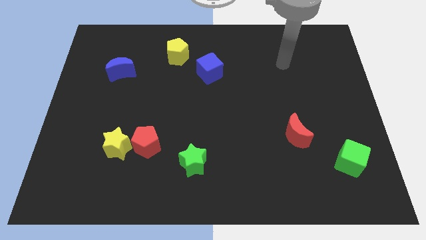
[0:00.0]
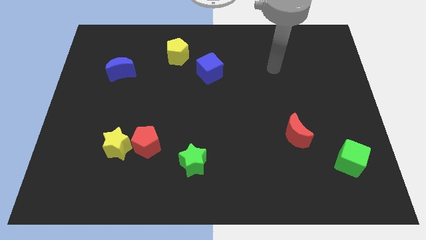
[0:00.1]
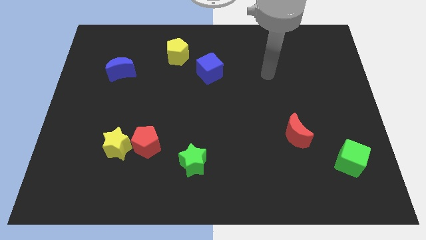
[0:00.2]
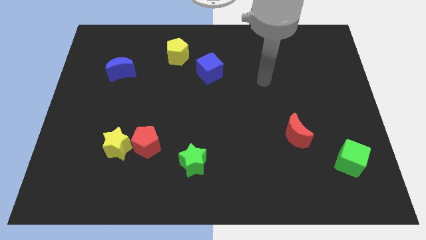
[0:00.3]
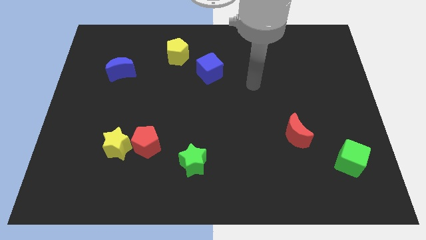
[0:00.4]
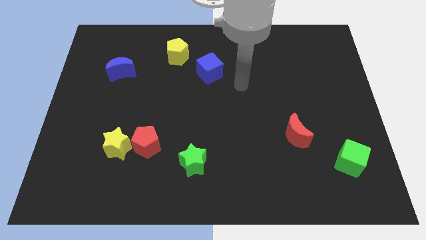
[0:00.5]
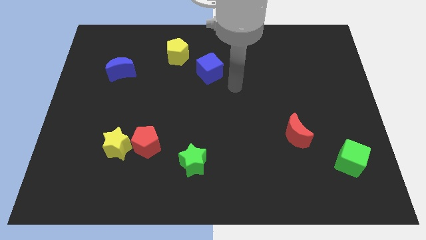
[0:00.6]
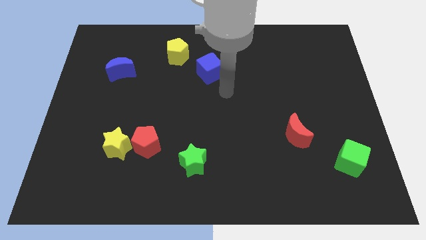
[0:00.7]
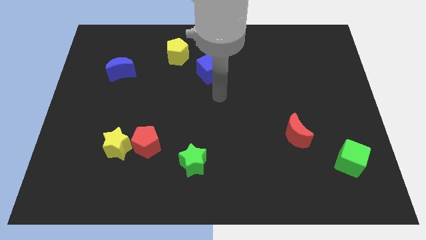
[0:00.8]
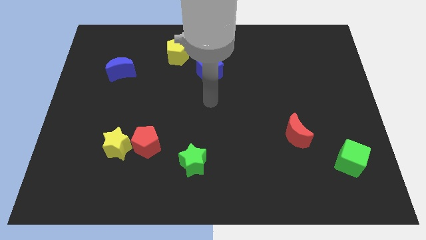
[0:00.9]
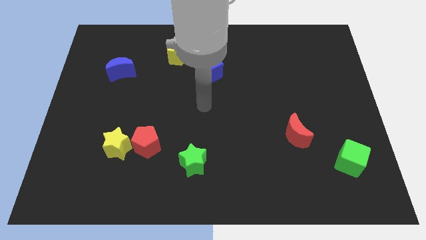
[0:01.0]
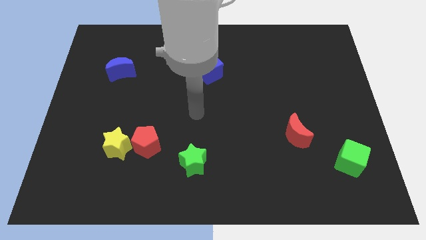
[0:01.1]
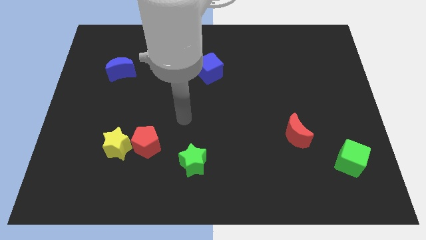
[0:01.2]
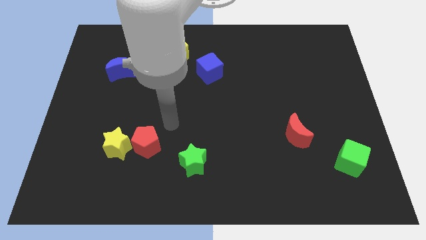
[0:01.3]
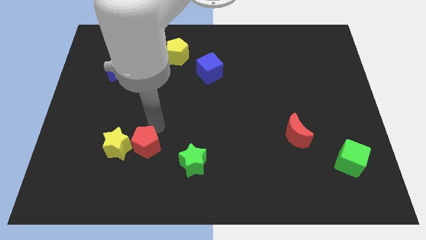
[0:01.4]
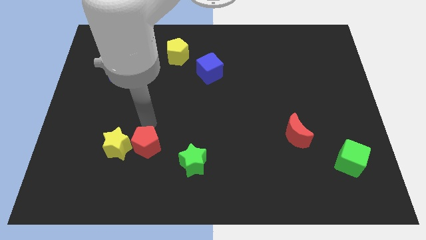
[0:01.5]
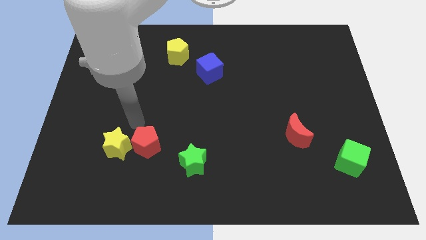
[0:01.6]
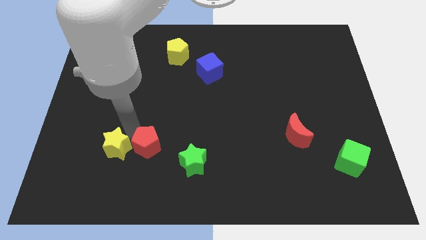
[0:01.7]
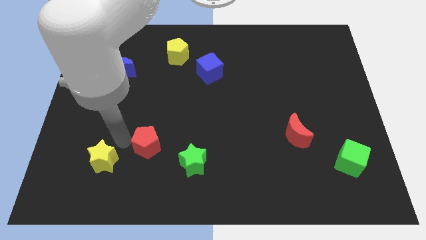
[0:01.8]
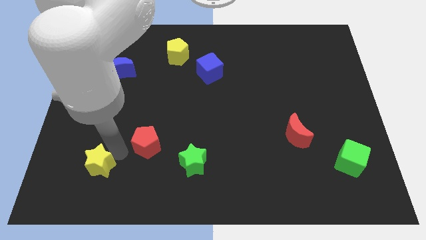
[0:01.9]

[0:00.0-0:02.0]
separate the red pentagon from the yellow star

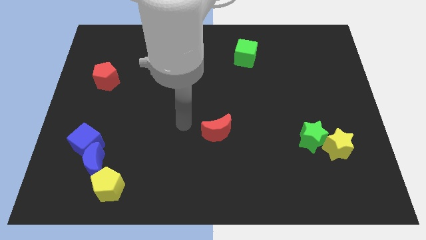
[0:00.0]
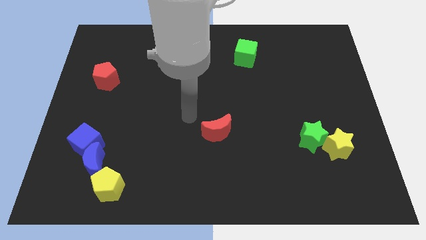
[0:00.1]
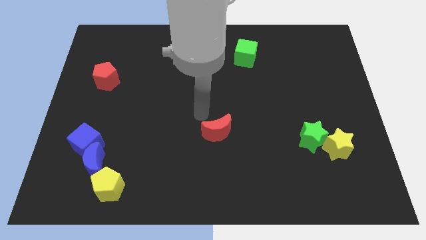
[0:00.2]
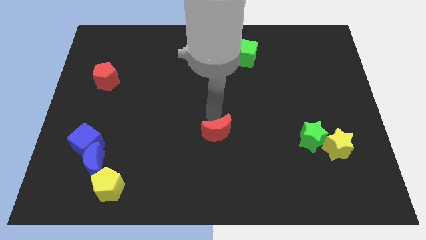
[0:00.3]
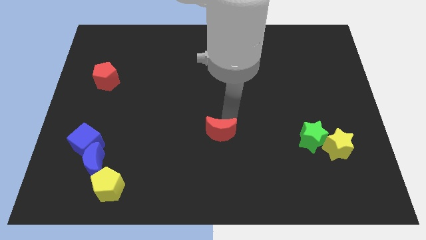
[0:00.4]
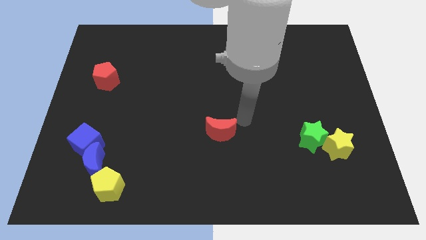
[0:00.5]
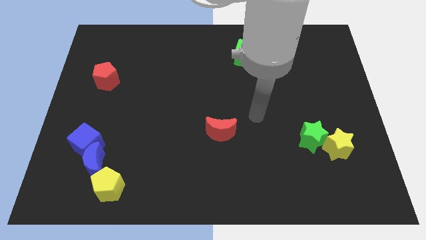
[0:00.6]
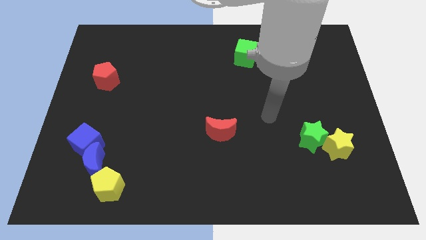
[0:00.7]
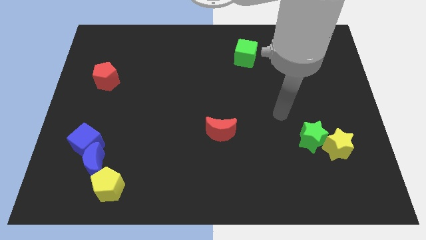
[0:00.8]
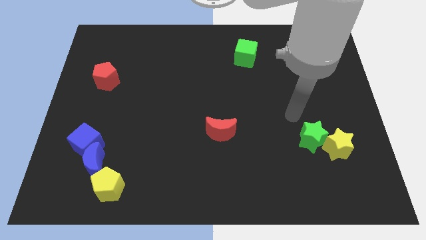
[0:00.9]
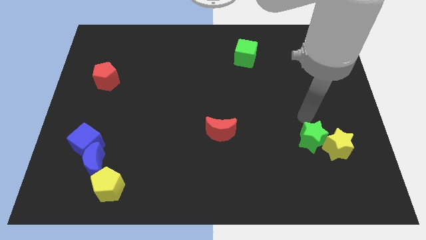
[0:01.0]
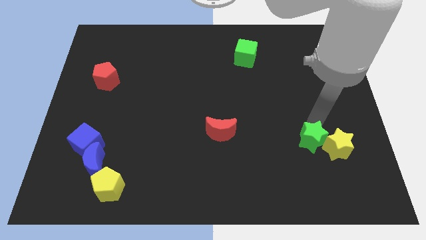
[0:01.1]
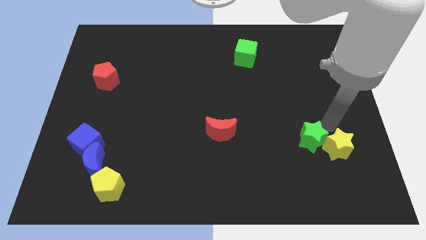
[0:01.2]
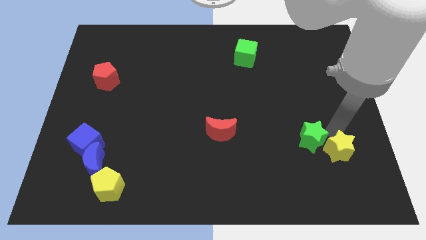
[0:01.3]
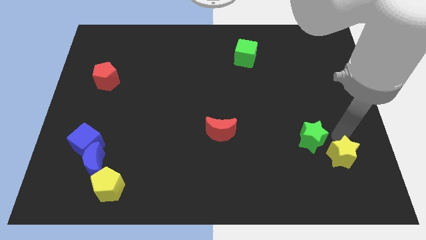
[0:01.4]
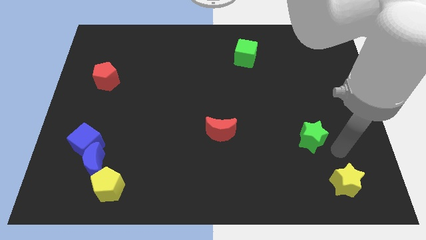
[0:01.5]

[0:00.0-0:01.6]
move the green star away from the yellow star

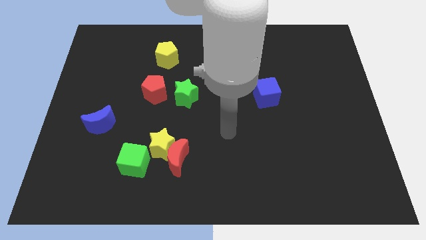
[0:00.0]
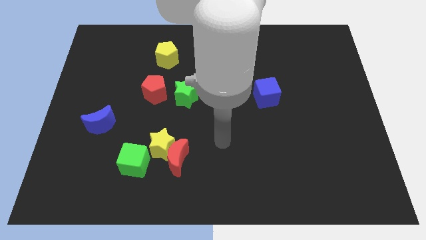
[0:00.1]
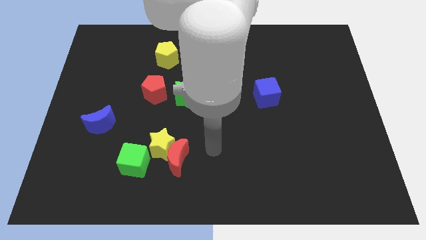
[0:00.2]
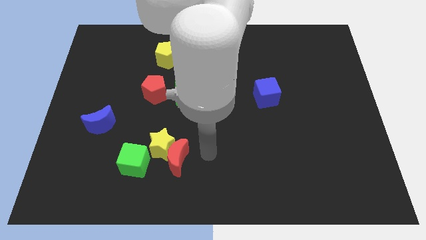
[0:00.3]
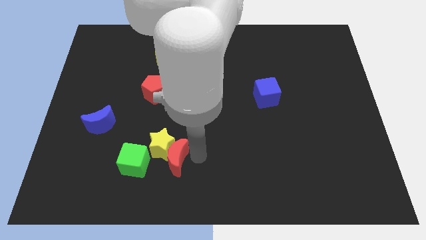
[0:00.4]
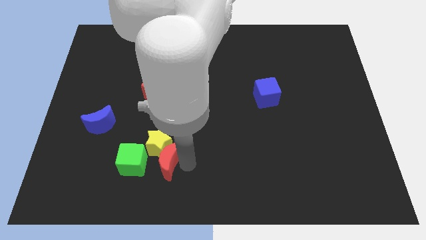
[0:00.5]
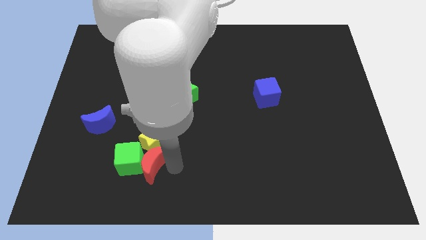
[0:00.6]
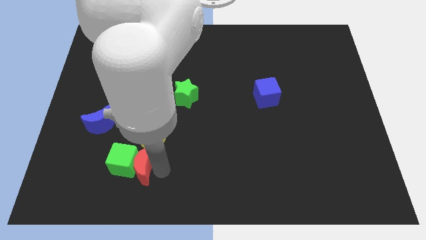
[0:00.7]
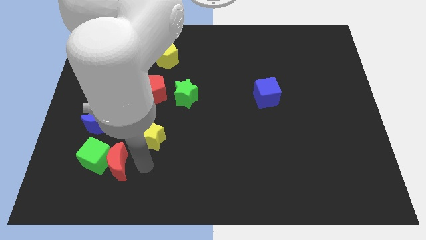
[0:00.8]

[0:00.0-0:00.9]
pull the yellow star apart from the red moon and green cube

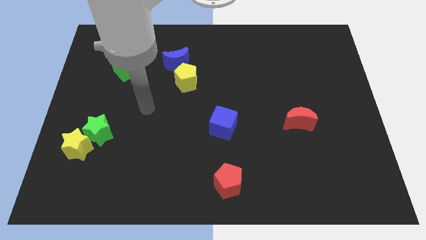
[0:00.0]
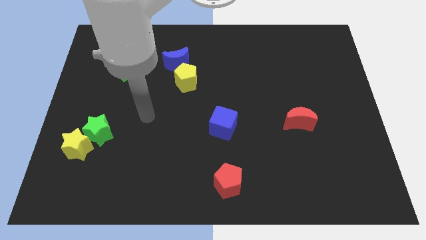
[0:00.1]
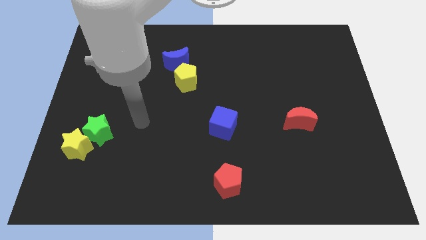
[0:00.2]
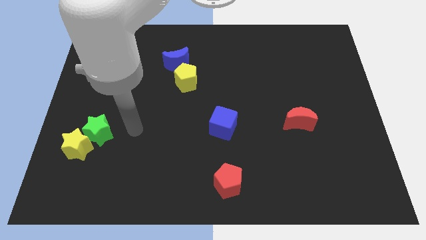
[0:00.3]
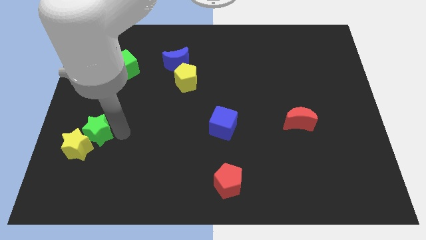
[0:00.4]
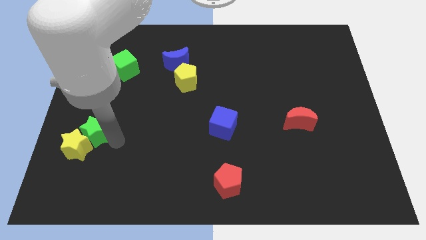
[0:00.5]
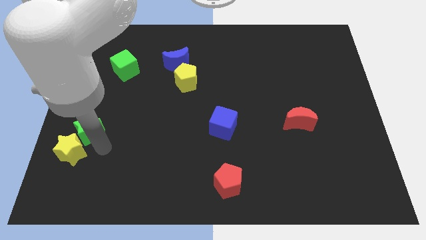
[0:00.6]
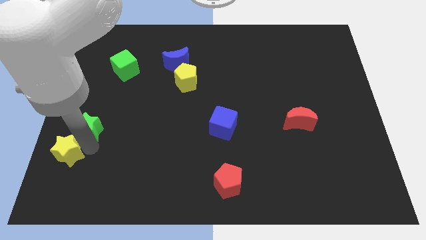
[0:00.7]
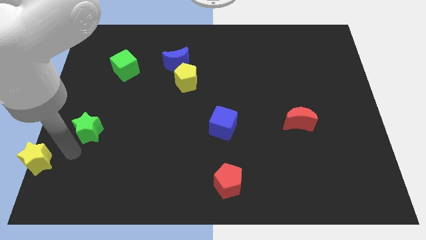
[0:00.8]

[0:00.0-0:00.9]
separate the green star from the yellow star

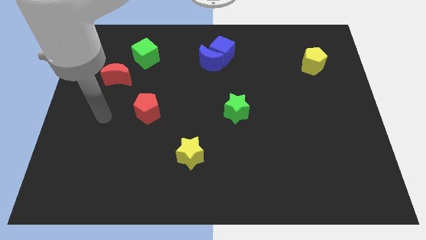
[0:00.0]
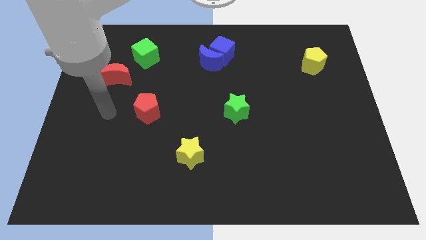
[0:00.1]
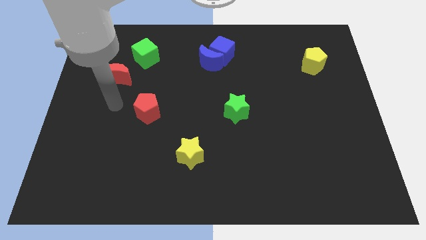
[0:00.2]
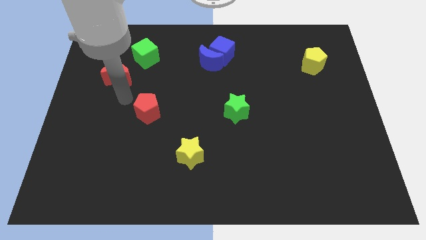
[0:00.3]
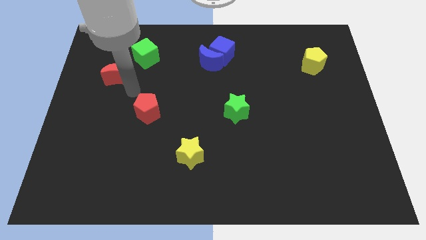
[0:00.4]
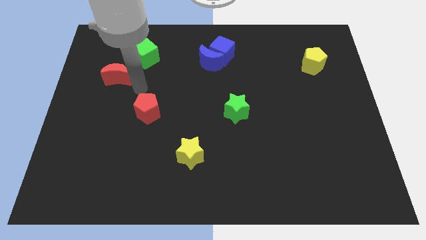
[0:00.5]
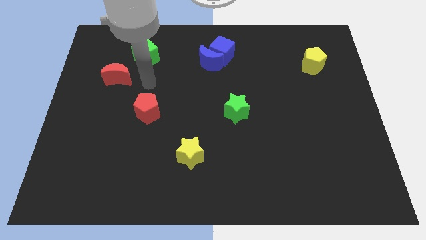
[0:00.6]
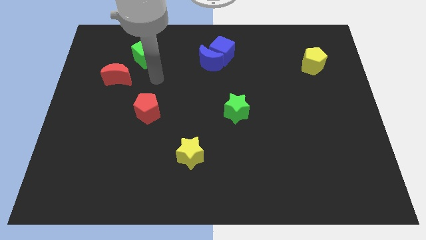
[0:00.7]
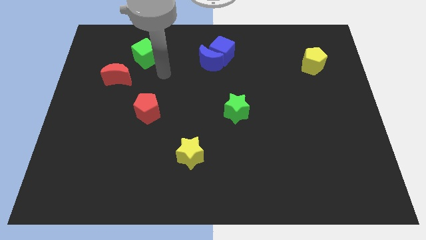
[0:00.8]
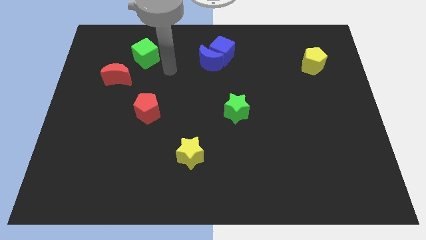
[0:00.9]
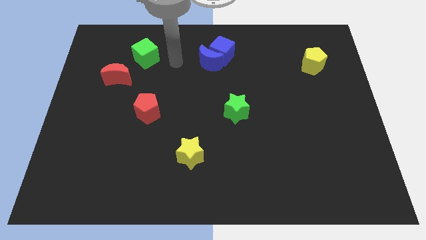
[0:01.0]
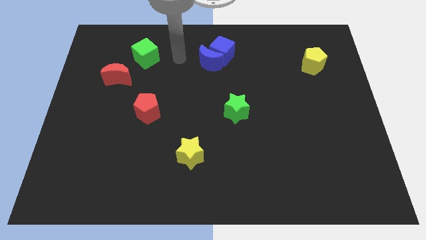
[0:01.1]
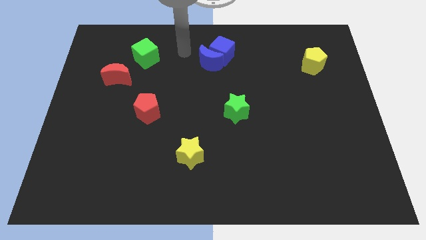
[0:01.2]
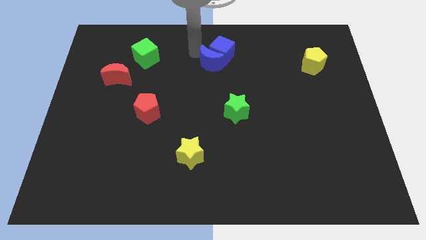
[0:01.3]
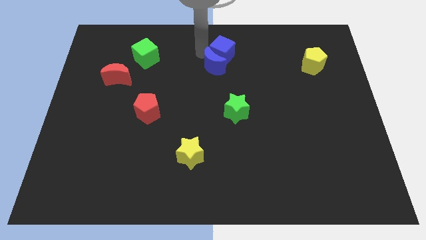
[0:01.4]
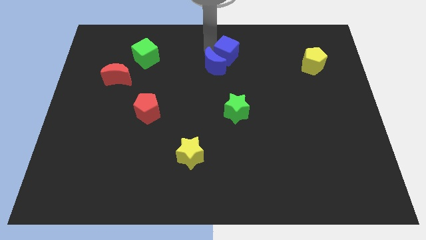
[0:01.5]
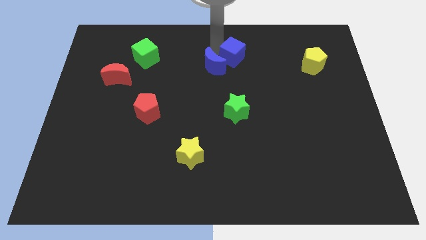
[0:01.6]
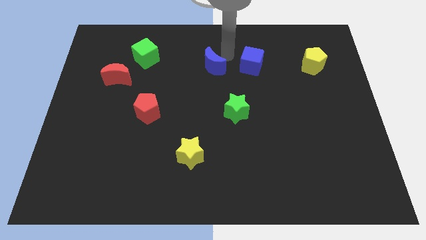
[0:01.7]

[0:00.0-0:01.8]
pull the blue moon apart from the blue cube

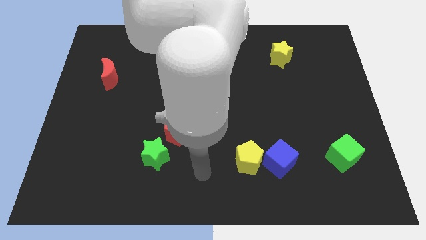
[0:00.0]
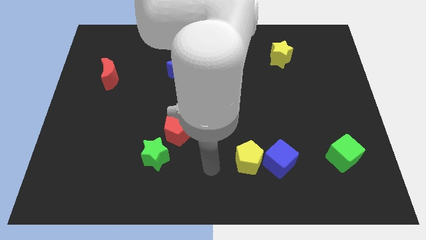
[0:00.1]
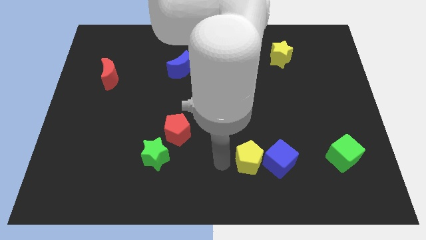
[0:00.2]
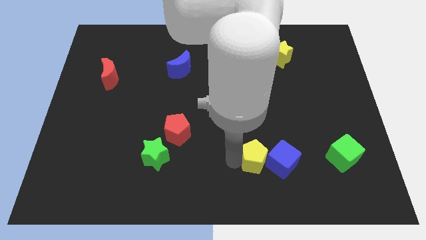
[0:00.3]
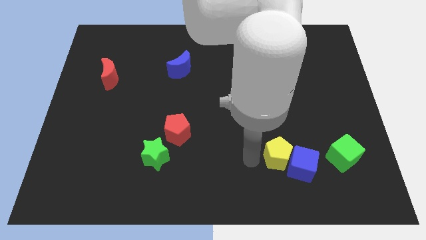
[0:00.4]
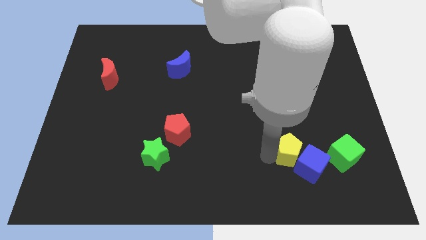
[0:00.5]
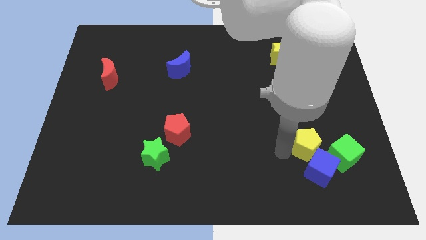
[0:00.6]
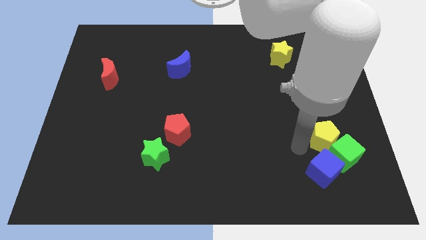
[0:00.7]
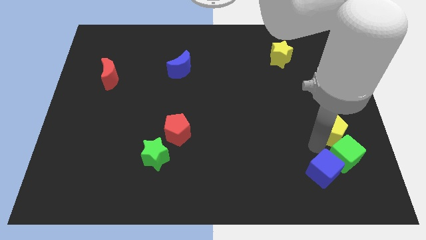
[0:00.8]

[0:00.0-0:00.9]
pull the blue cube apart from the yellow pentagon

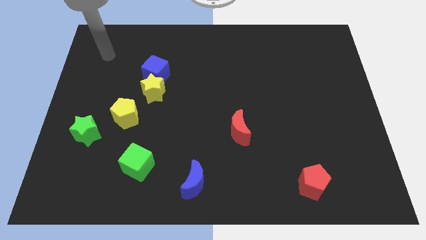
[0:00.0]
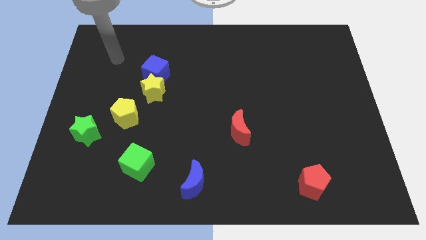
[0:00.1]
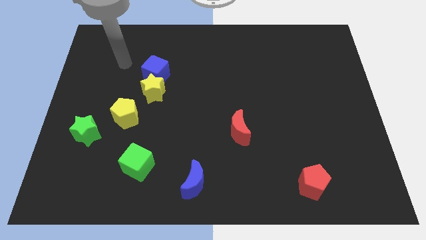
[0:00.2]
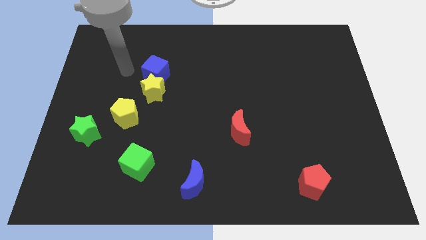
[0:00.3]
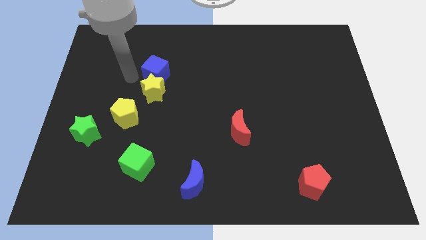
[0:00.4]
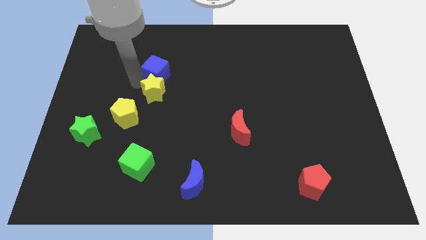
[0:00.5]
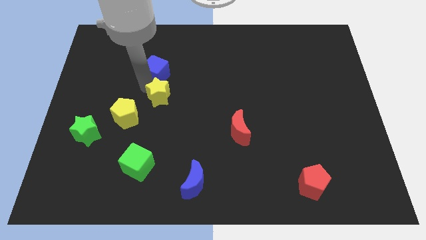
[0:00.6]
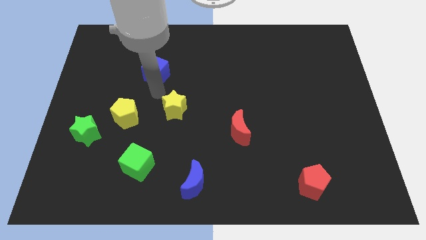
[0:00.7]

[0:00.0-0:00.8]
move the blue cube away from the yellow star

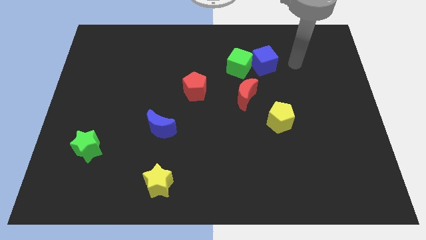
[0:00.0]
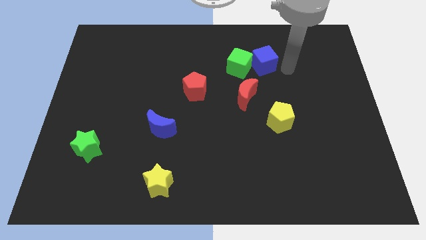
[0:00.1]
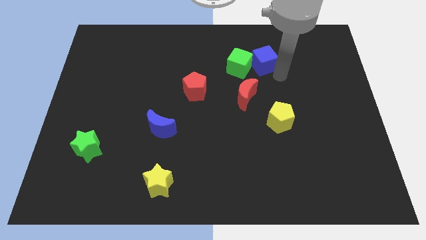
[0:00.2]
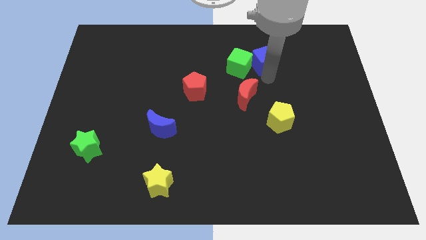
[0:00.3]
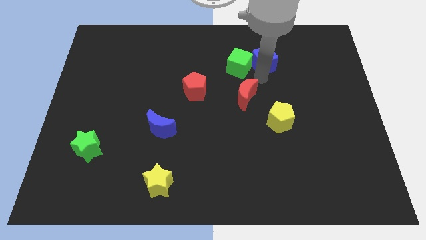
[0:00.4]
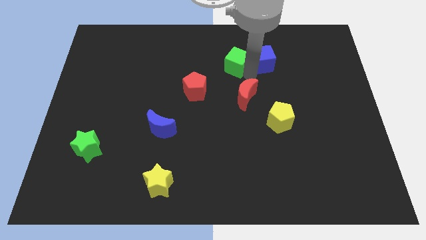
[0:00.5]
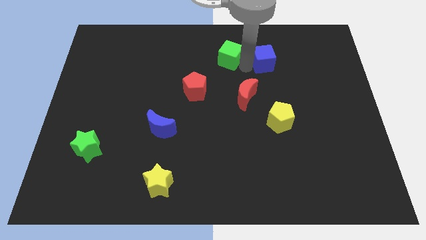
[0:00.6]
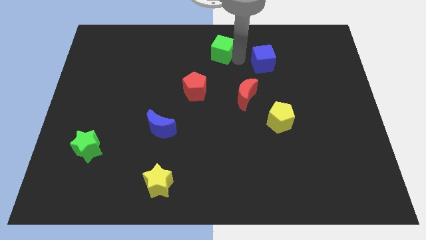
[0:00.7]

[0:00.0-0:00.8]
pull the blue cube apart from the green cube
